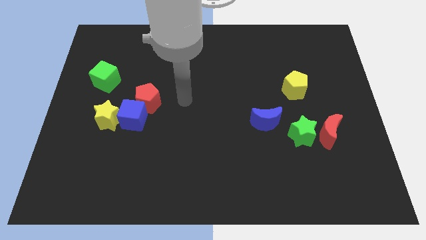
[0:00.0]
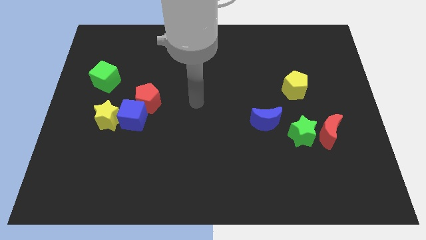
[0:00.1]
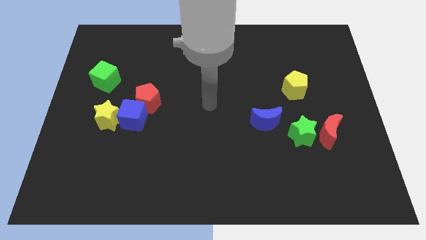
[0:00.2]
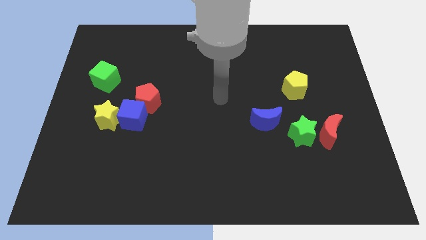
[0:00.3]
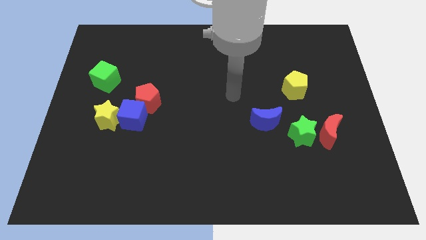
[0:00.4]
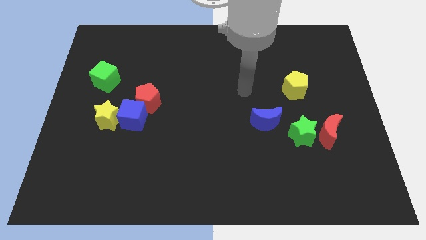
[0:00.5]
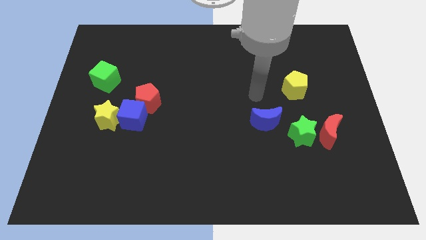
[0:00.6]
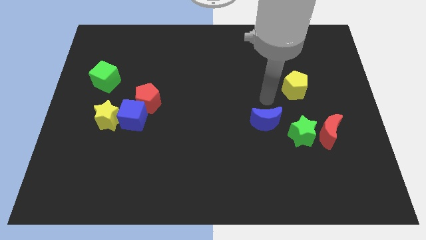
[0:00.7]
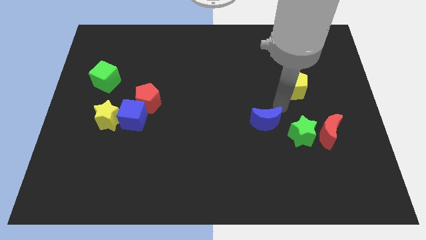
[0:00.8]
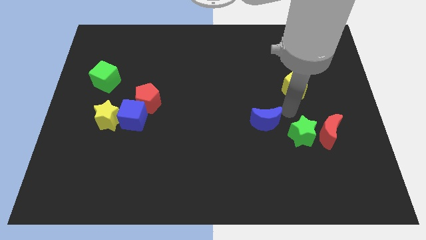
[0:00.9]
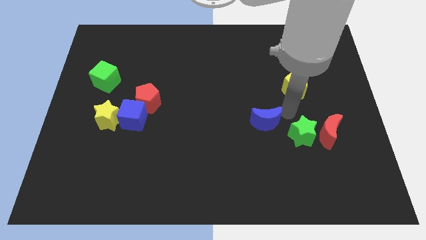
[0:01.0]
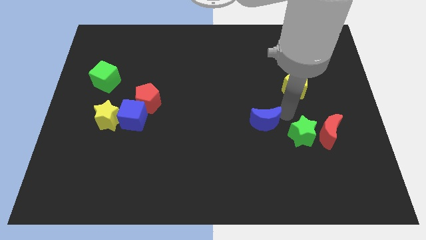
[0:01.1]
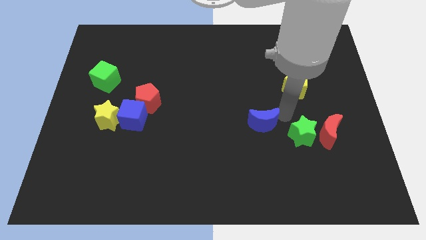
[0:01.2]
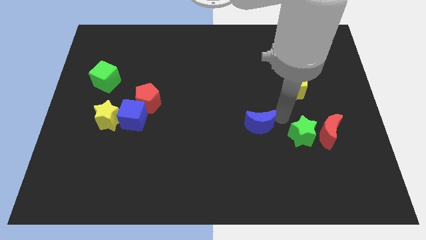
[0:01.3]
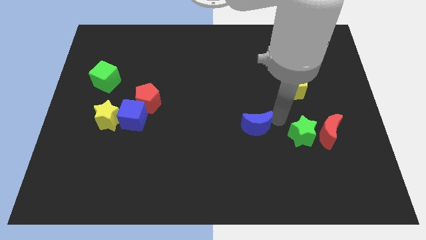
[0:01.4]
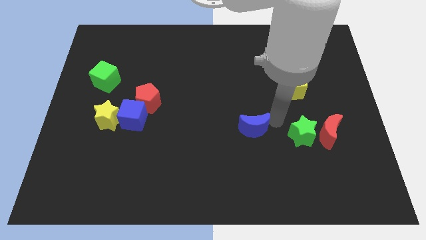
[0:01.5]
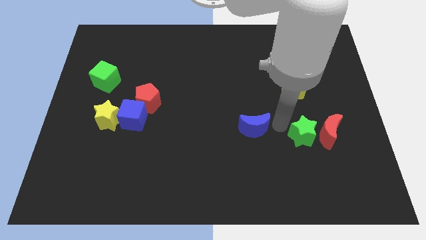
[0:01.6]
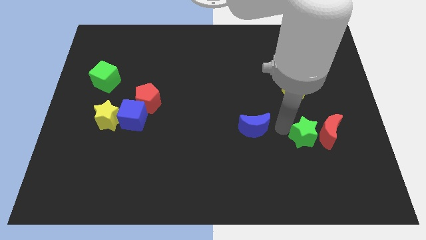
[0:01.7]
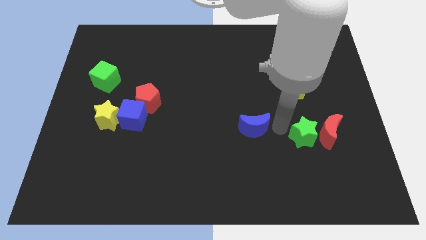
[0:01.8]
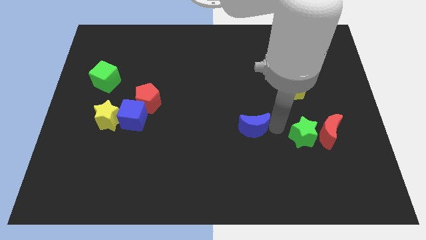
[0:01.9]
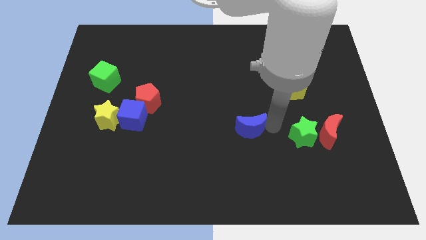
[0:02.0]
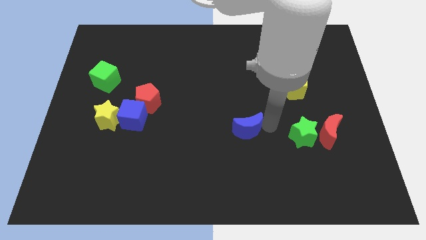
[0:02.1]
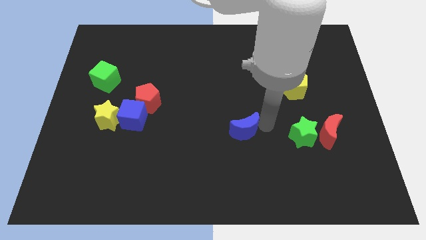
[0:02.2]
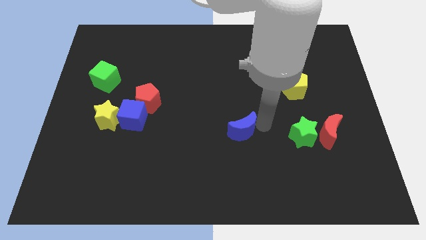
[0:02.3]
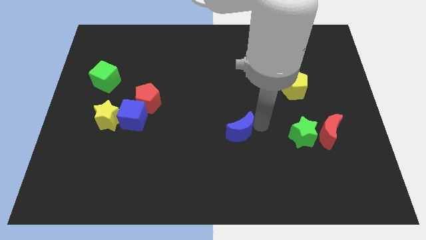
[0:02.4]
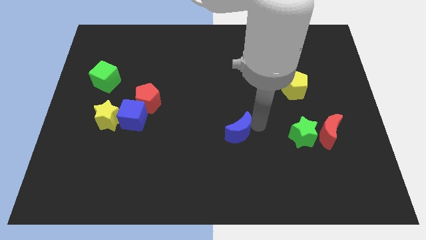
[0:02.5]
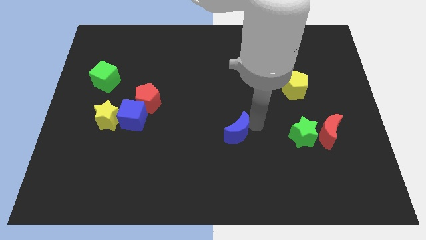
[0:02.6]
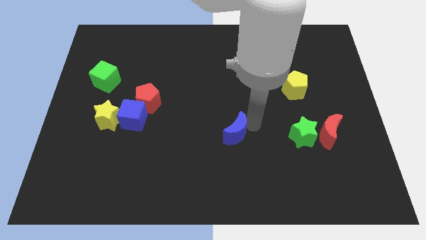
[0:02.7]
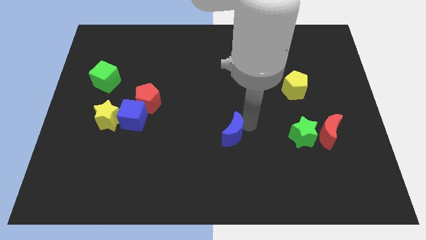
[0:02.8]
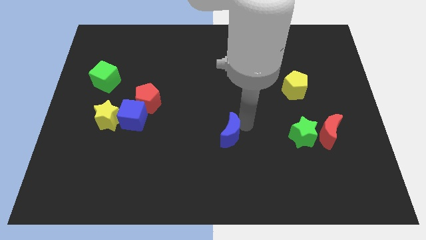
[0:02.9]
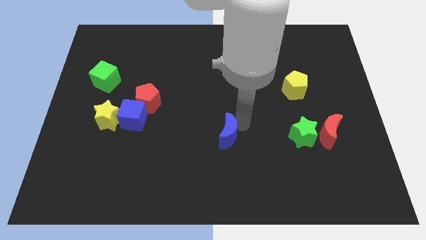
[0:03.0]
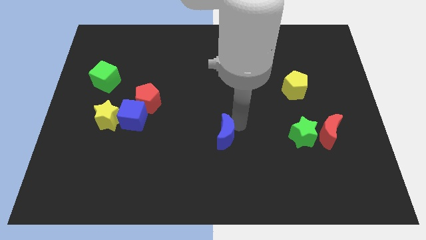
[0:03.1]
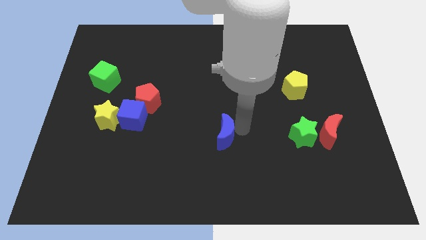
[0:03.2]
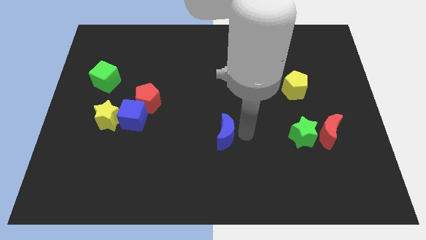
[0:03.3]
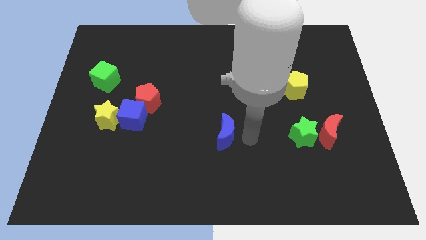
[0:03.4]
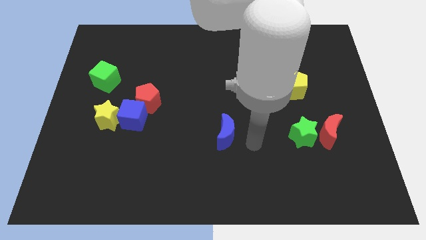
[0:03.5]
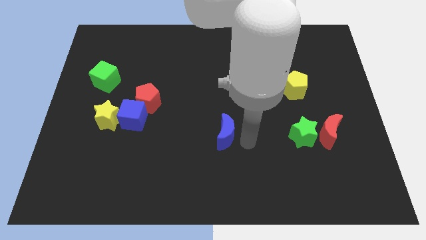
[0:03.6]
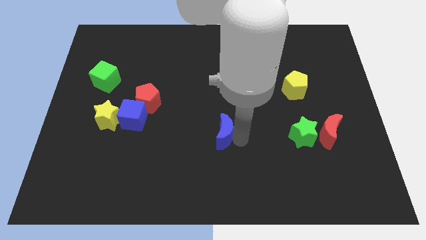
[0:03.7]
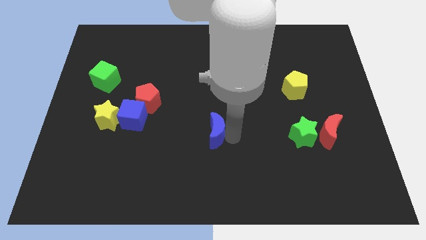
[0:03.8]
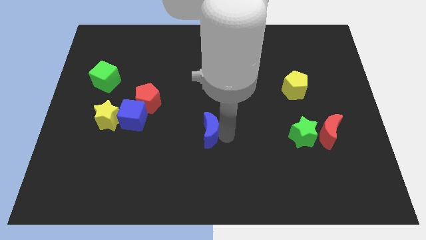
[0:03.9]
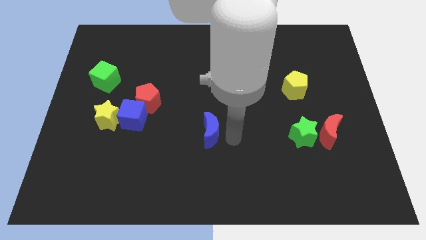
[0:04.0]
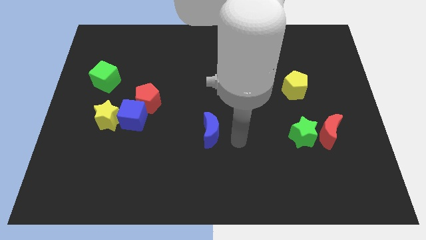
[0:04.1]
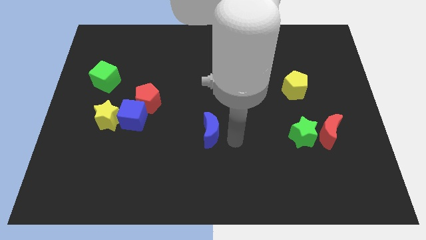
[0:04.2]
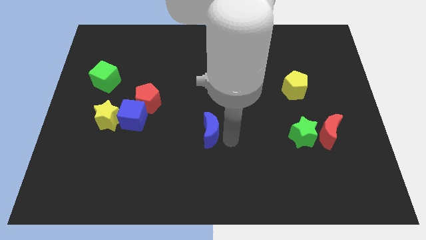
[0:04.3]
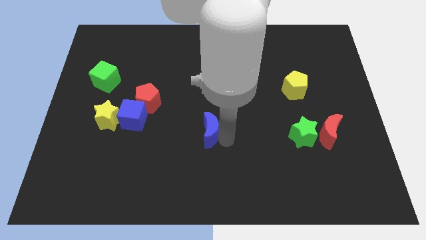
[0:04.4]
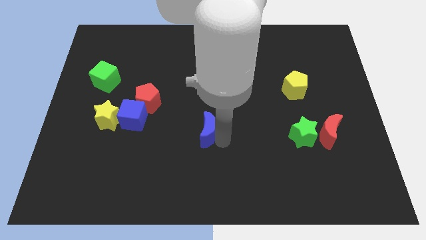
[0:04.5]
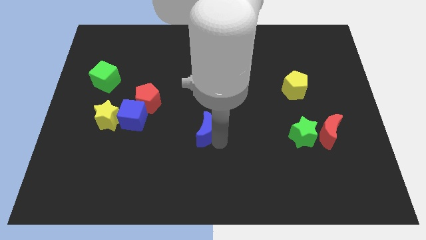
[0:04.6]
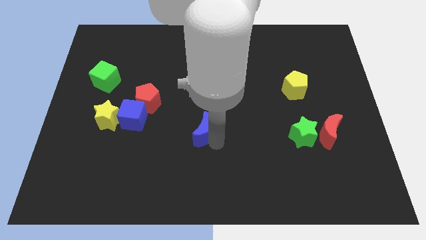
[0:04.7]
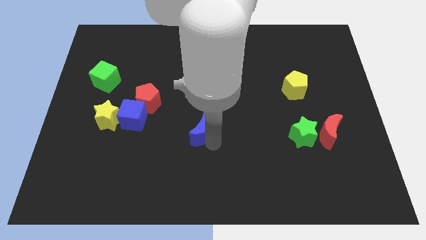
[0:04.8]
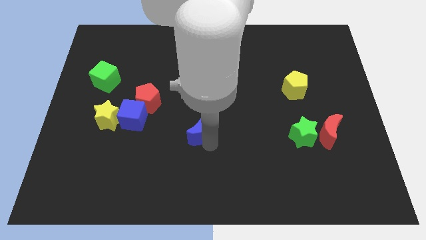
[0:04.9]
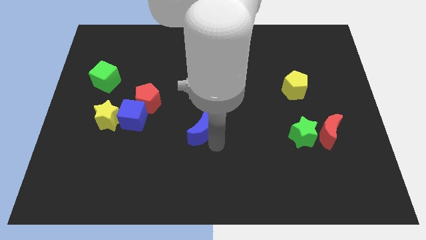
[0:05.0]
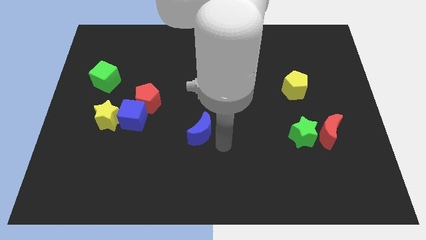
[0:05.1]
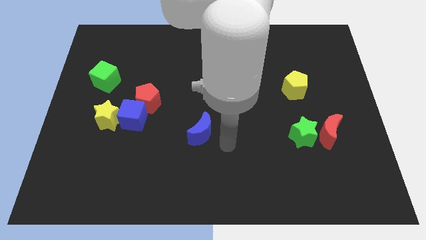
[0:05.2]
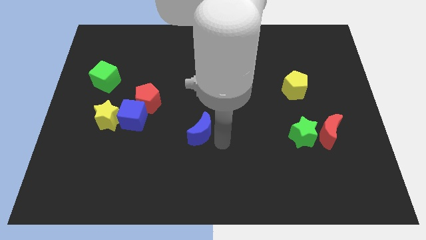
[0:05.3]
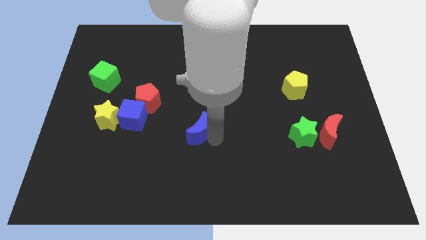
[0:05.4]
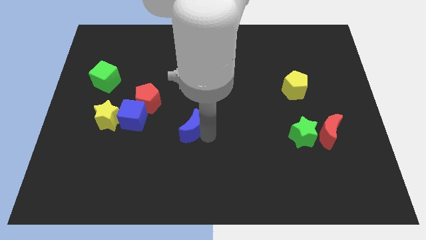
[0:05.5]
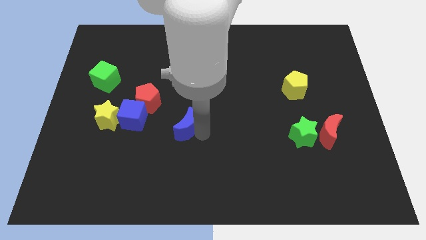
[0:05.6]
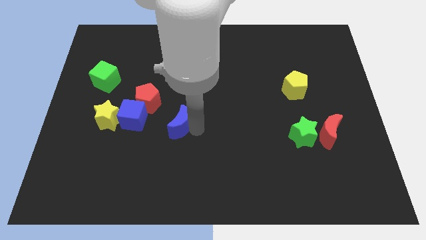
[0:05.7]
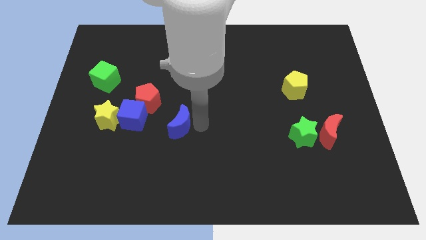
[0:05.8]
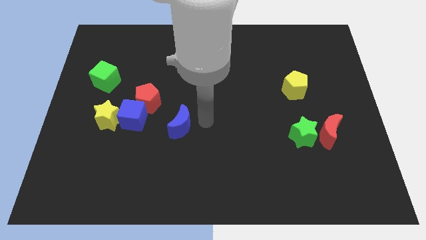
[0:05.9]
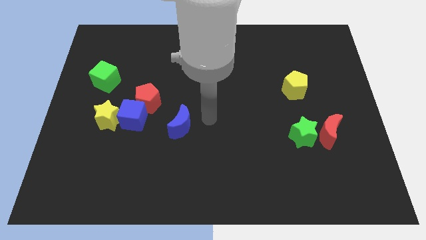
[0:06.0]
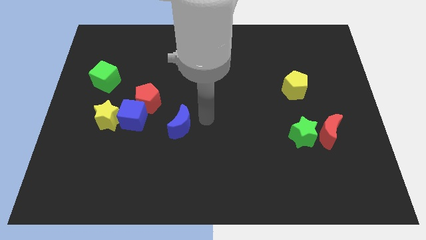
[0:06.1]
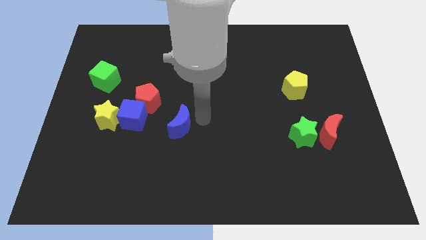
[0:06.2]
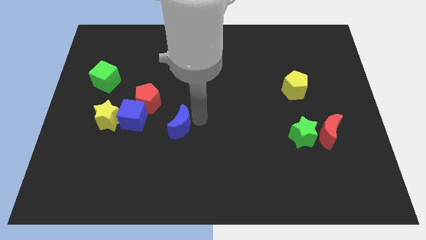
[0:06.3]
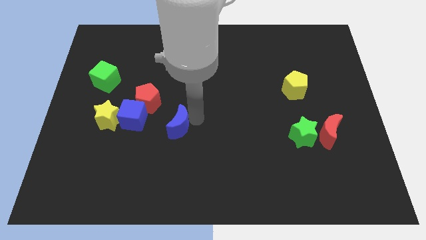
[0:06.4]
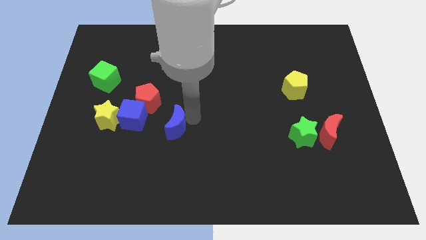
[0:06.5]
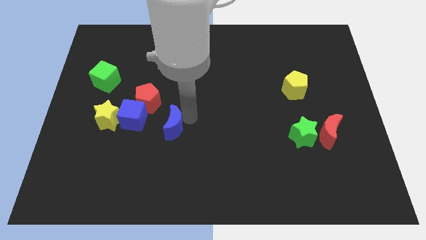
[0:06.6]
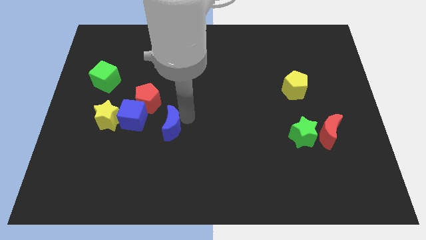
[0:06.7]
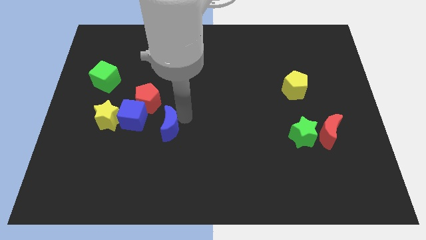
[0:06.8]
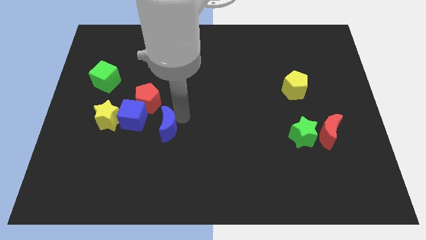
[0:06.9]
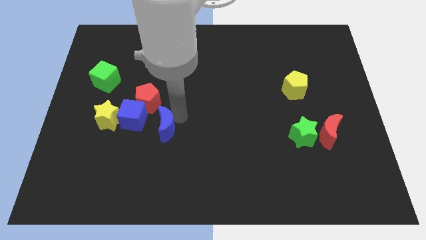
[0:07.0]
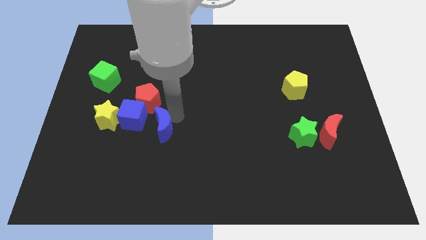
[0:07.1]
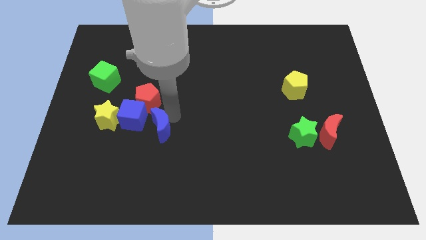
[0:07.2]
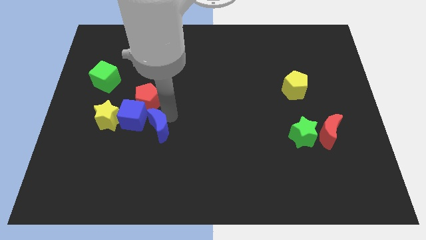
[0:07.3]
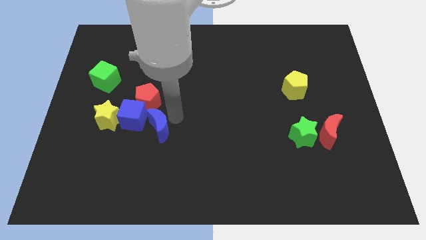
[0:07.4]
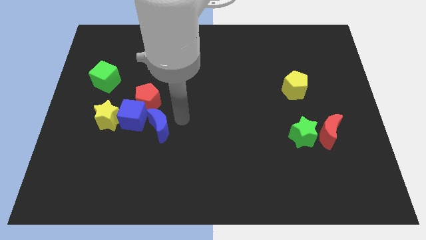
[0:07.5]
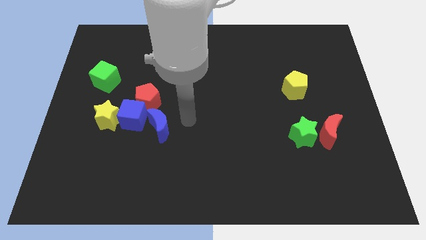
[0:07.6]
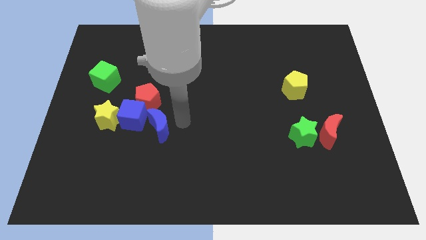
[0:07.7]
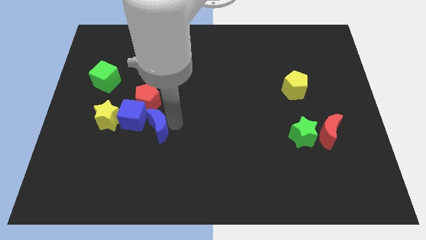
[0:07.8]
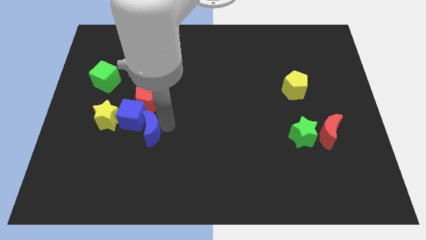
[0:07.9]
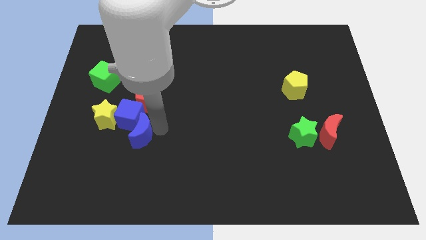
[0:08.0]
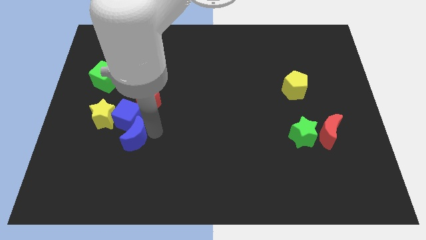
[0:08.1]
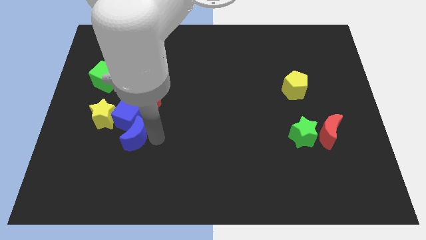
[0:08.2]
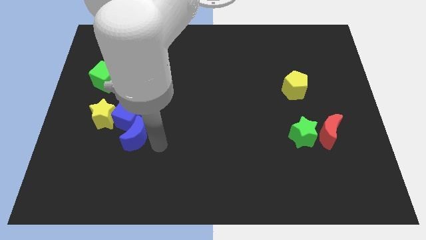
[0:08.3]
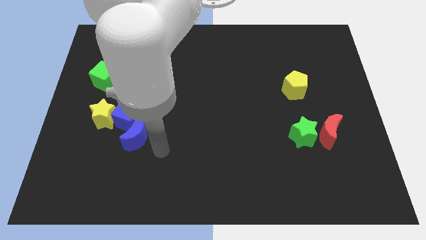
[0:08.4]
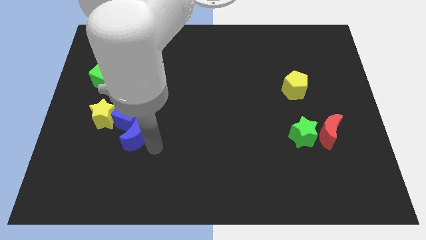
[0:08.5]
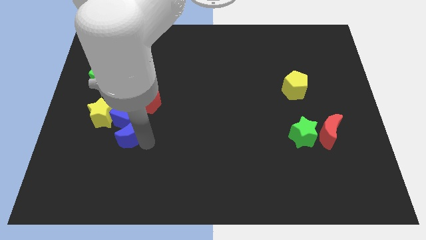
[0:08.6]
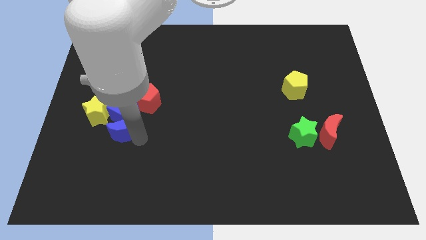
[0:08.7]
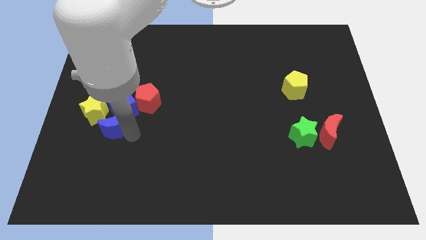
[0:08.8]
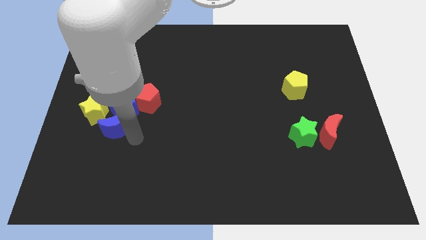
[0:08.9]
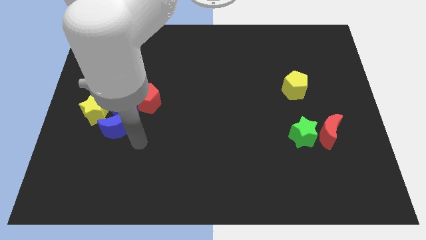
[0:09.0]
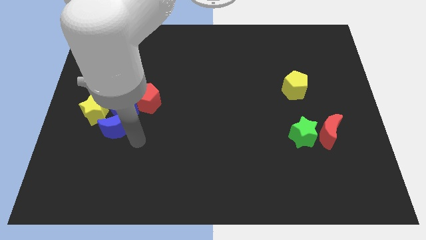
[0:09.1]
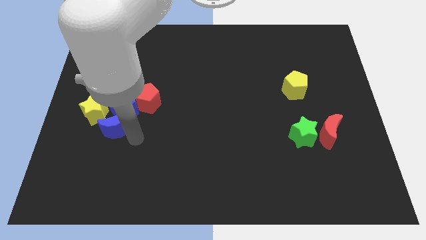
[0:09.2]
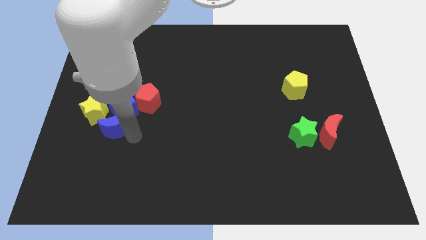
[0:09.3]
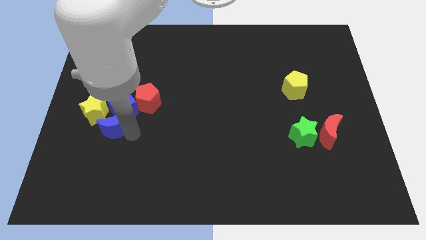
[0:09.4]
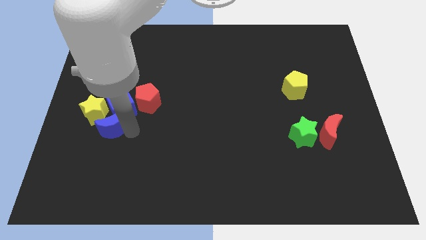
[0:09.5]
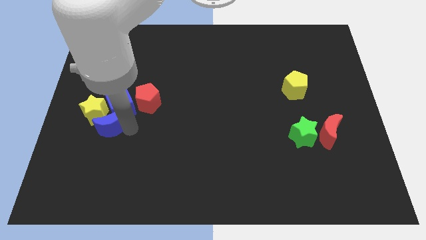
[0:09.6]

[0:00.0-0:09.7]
move the blue moon close to the yellow star
